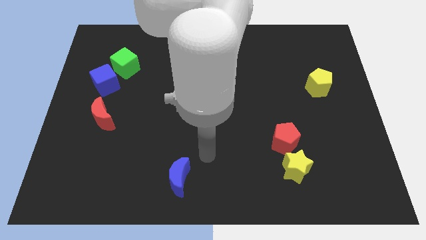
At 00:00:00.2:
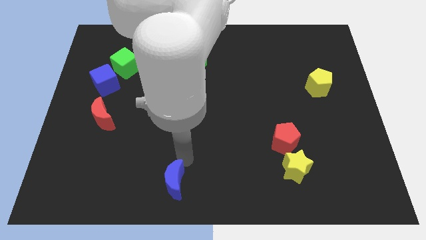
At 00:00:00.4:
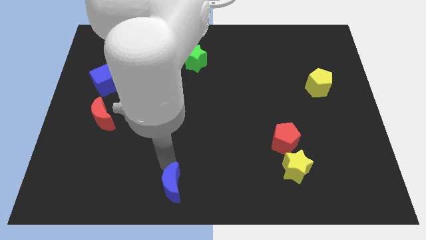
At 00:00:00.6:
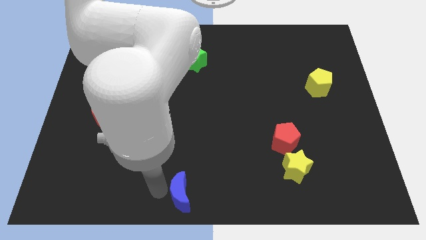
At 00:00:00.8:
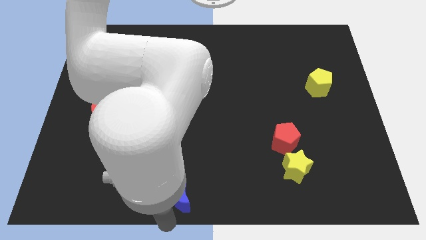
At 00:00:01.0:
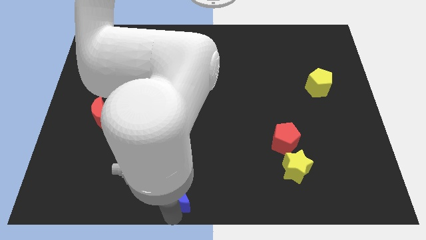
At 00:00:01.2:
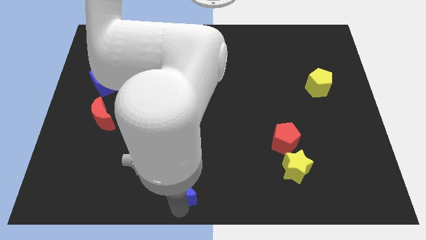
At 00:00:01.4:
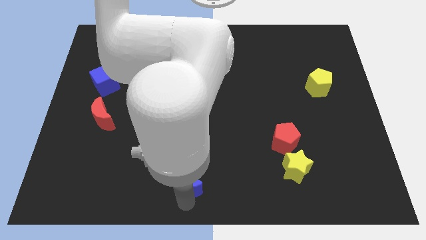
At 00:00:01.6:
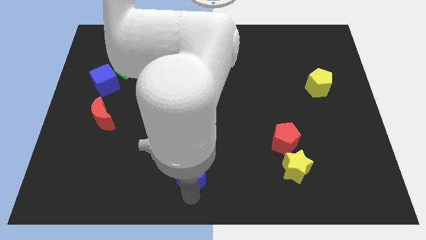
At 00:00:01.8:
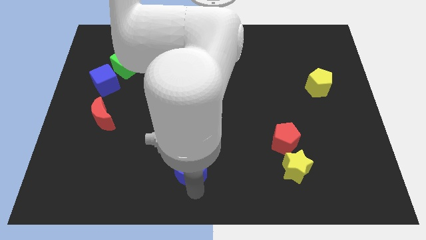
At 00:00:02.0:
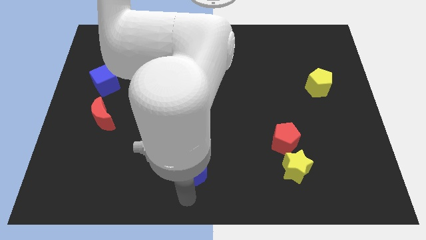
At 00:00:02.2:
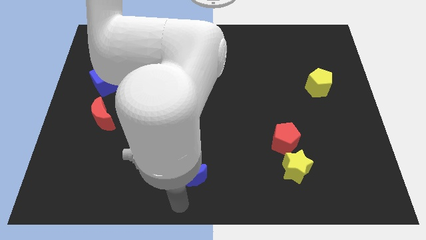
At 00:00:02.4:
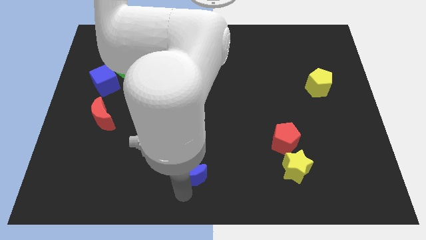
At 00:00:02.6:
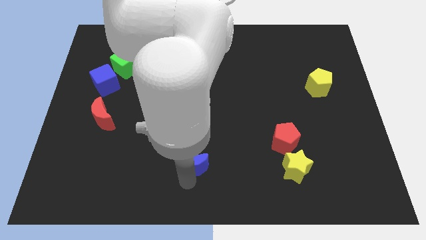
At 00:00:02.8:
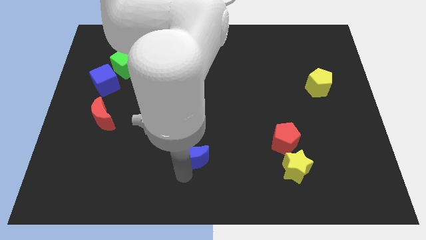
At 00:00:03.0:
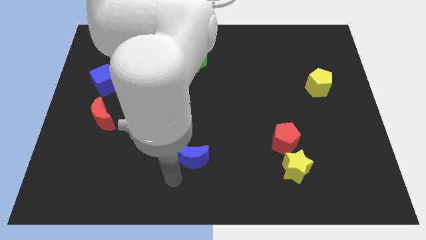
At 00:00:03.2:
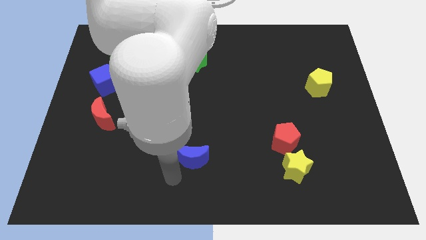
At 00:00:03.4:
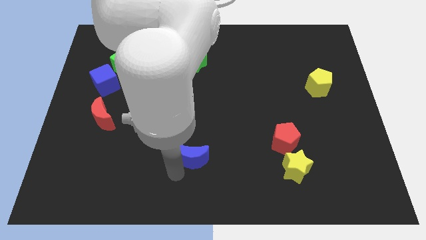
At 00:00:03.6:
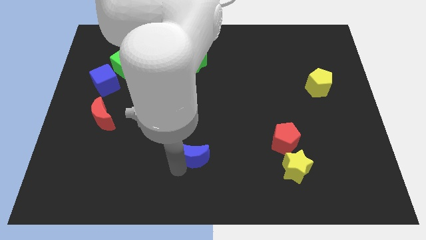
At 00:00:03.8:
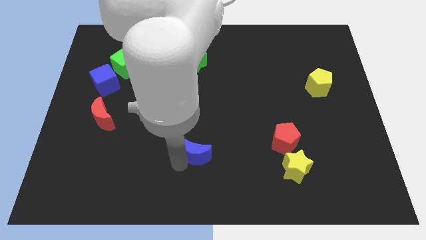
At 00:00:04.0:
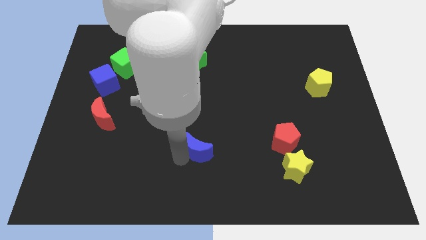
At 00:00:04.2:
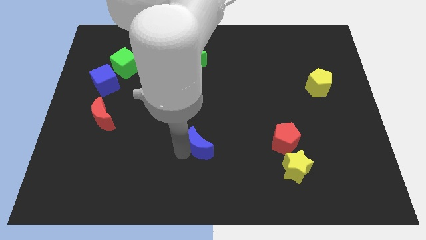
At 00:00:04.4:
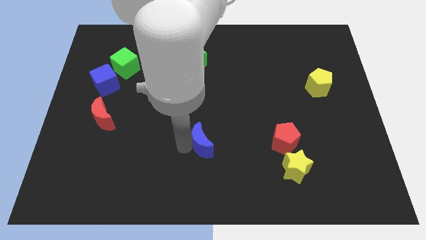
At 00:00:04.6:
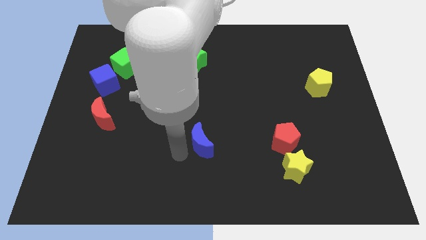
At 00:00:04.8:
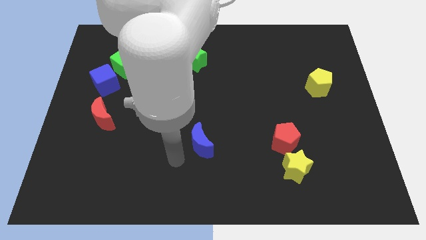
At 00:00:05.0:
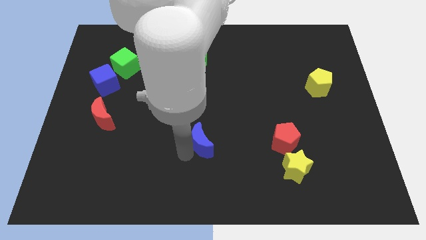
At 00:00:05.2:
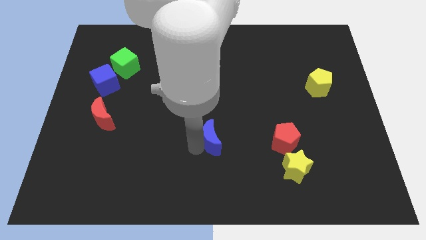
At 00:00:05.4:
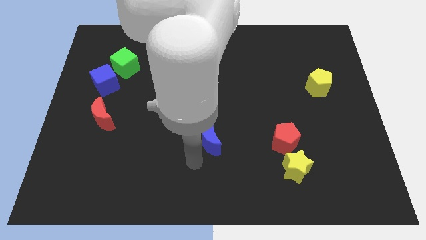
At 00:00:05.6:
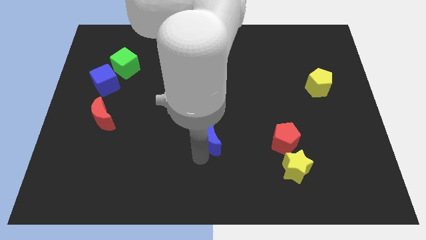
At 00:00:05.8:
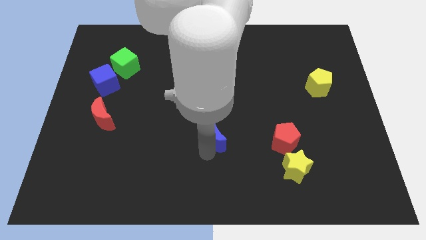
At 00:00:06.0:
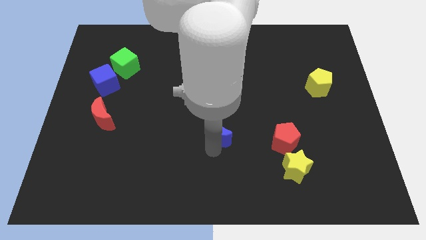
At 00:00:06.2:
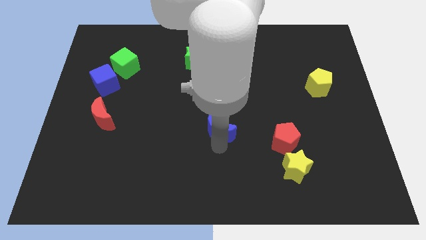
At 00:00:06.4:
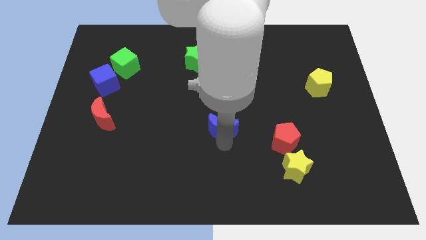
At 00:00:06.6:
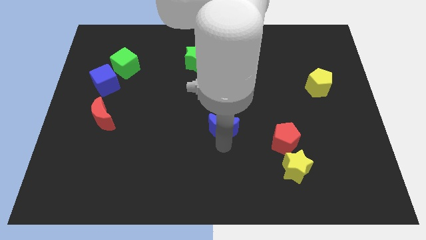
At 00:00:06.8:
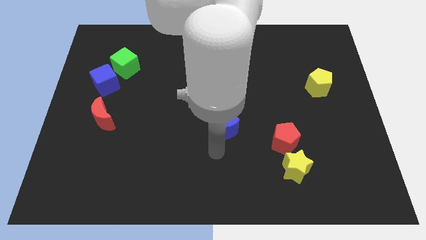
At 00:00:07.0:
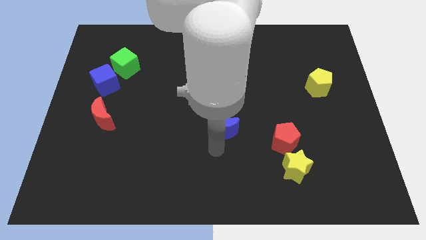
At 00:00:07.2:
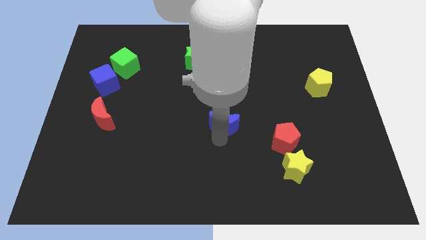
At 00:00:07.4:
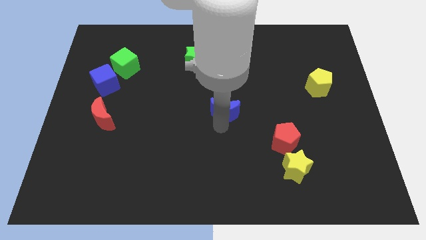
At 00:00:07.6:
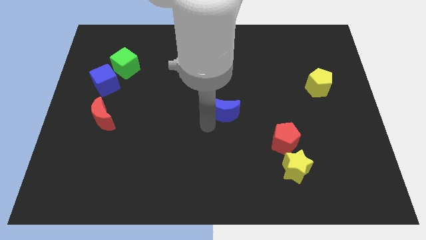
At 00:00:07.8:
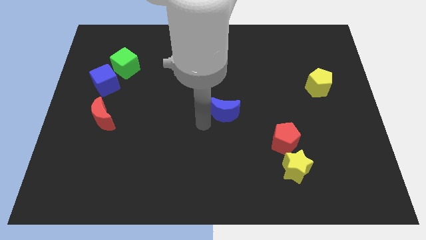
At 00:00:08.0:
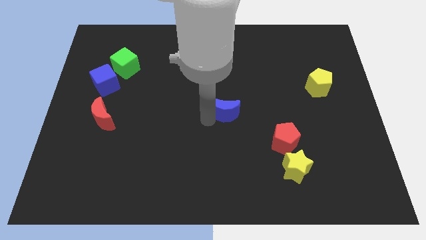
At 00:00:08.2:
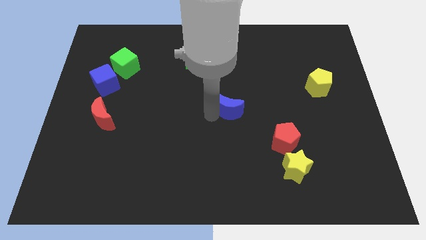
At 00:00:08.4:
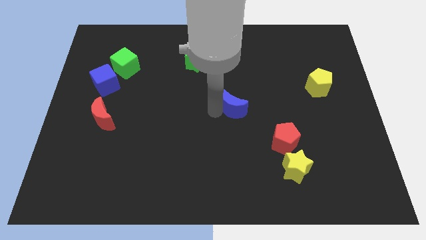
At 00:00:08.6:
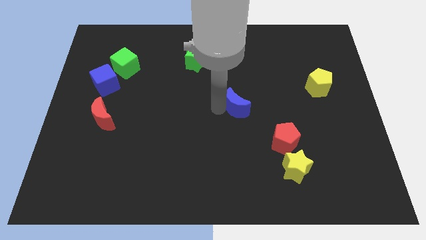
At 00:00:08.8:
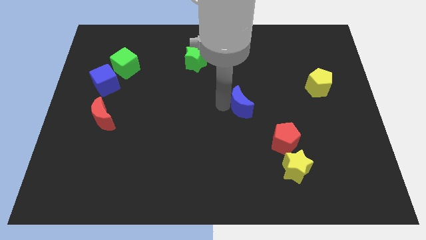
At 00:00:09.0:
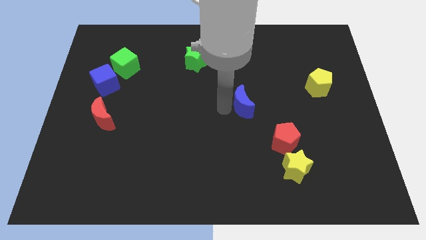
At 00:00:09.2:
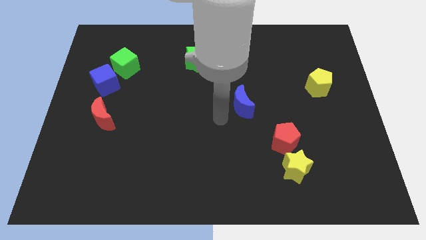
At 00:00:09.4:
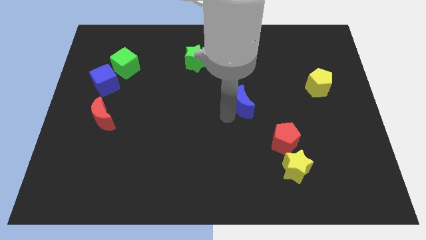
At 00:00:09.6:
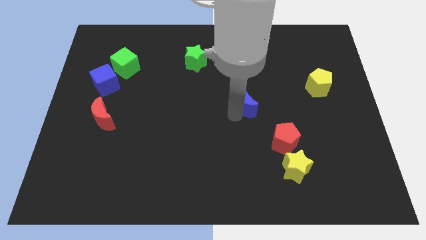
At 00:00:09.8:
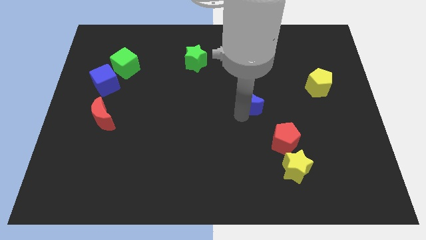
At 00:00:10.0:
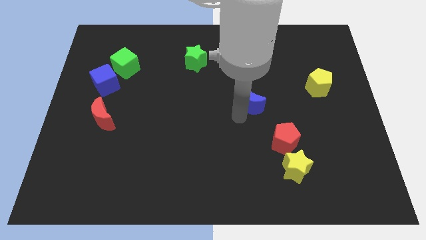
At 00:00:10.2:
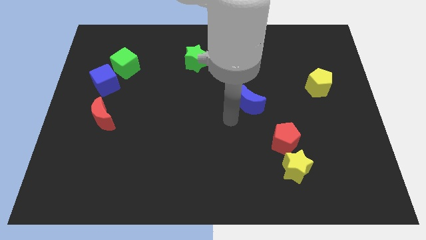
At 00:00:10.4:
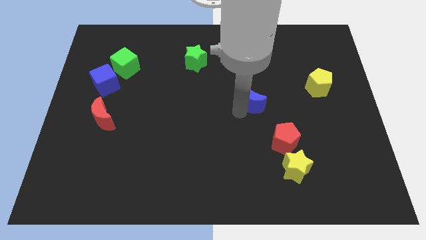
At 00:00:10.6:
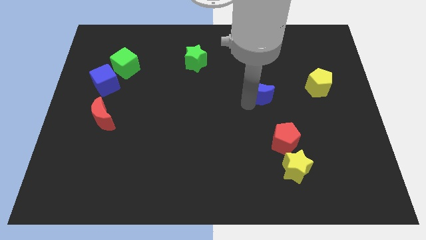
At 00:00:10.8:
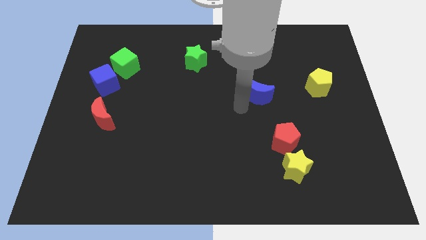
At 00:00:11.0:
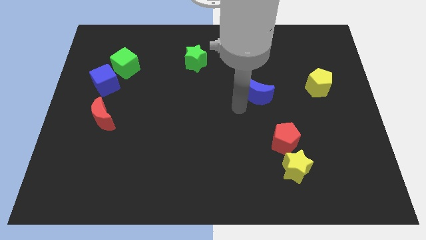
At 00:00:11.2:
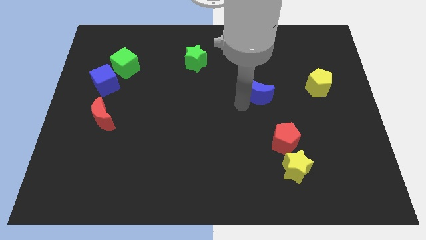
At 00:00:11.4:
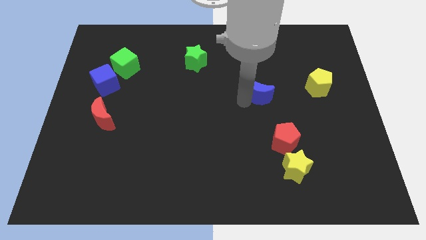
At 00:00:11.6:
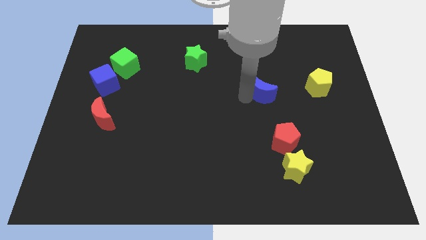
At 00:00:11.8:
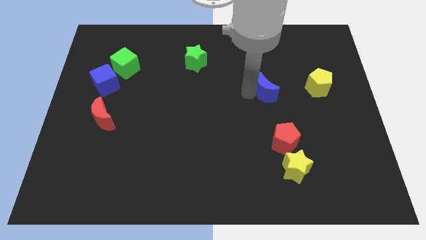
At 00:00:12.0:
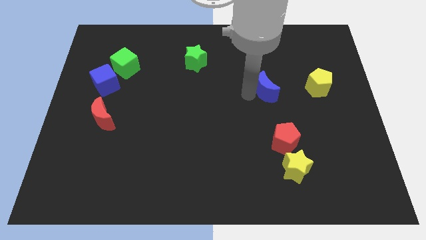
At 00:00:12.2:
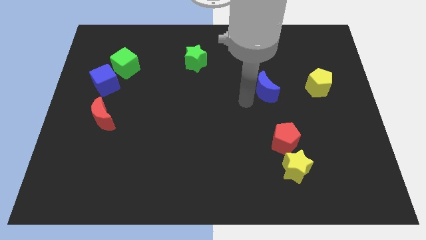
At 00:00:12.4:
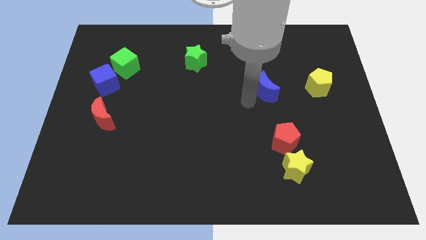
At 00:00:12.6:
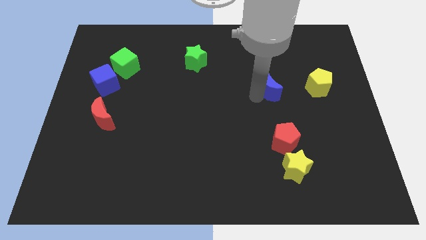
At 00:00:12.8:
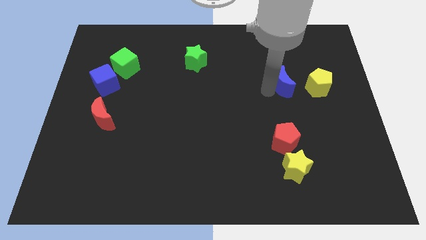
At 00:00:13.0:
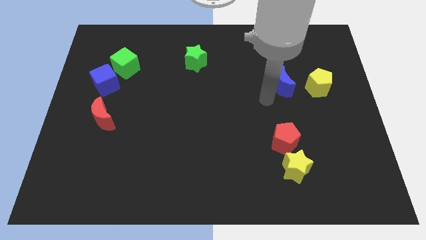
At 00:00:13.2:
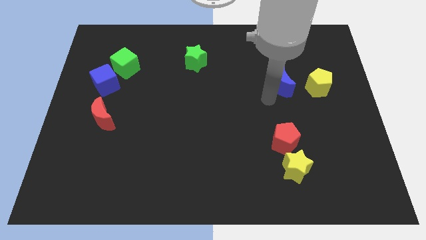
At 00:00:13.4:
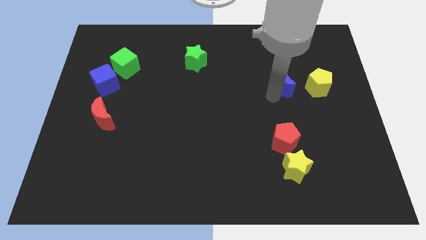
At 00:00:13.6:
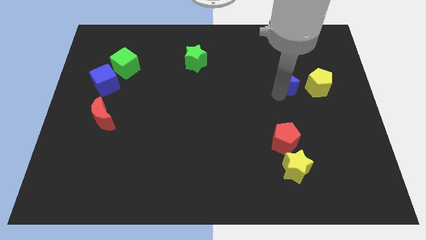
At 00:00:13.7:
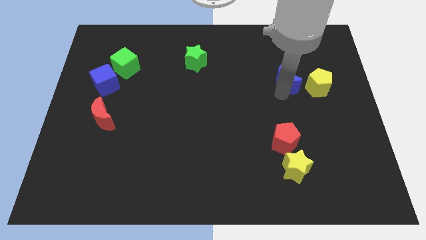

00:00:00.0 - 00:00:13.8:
slide the blue moon to the top left of the yellow pentagon
